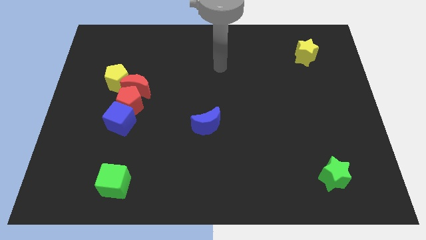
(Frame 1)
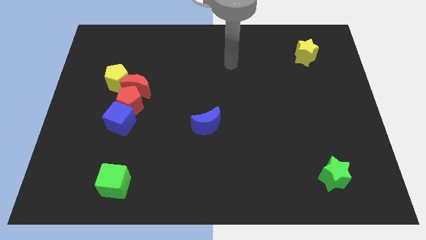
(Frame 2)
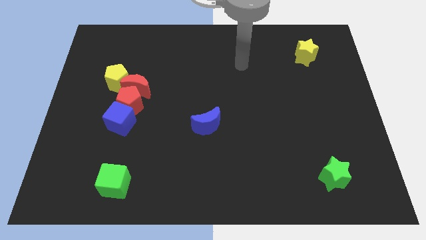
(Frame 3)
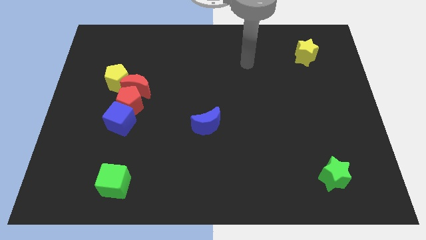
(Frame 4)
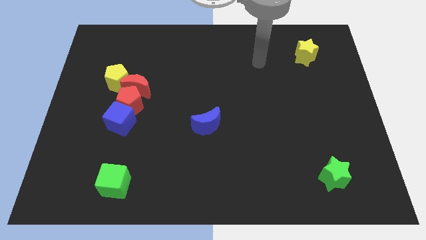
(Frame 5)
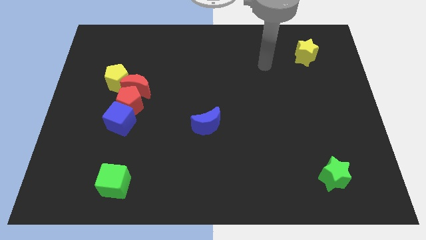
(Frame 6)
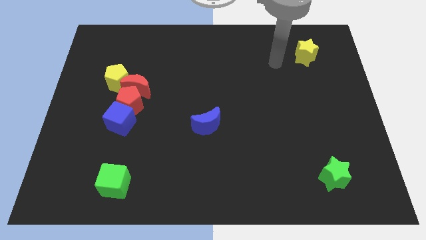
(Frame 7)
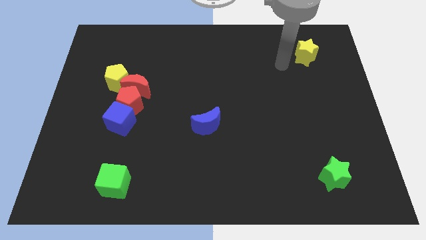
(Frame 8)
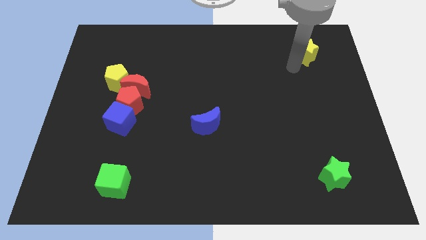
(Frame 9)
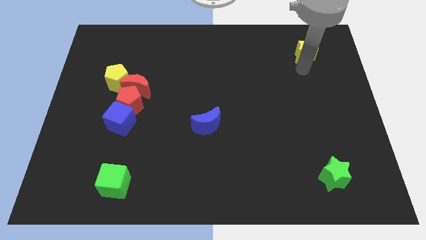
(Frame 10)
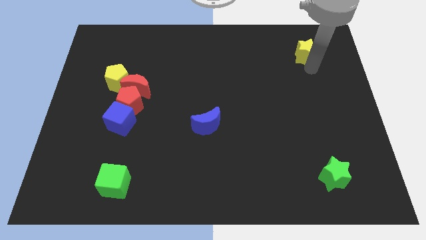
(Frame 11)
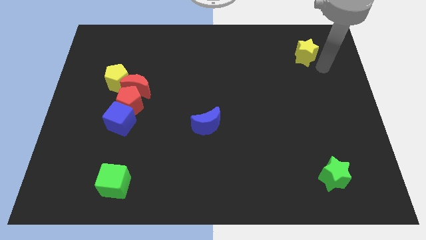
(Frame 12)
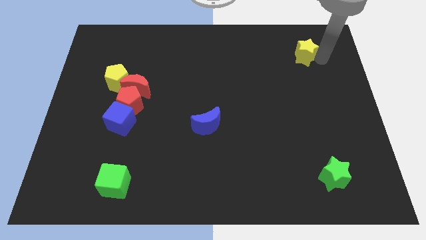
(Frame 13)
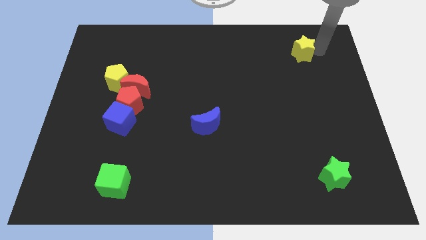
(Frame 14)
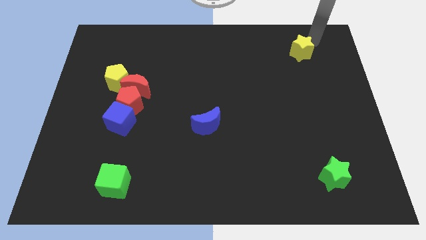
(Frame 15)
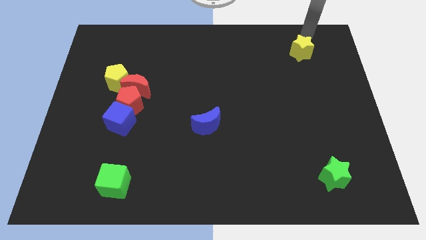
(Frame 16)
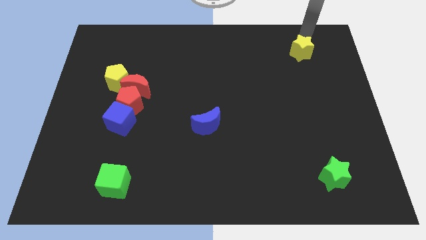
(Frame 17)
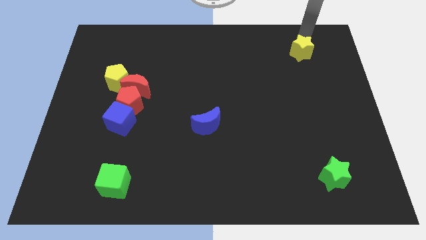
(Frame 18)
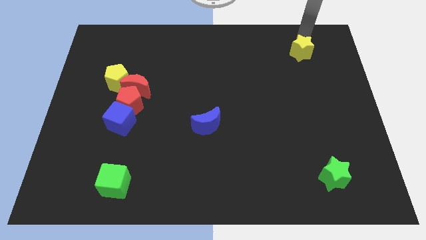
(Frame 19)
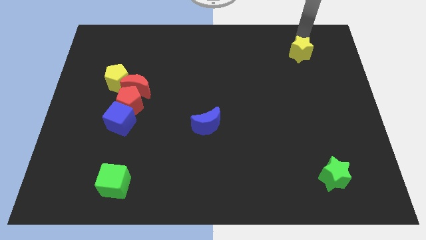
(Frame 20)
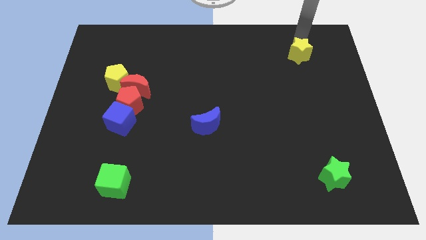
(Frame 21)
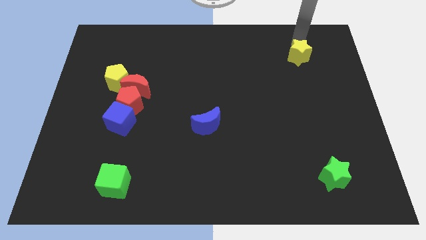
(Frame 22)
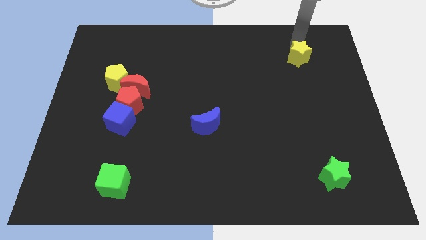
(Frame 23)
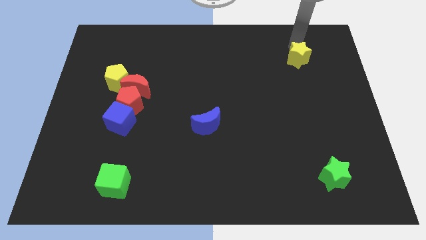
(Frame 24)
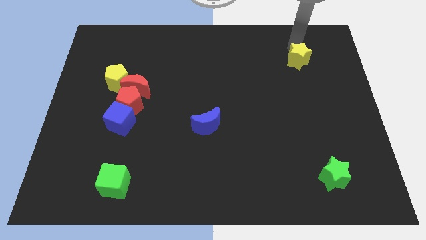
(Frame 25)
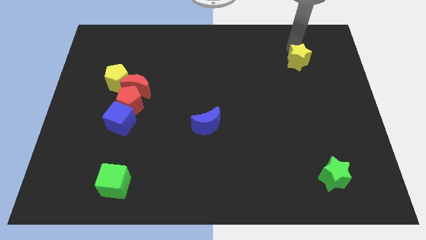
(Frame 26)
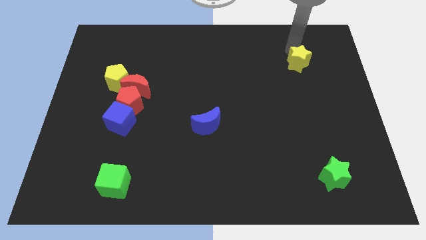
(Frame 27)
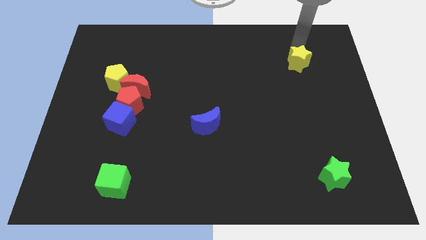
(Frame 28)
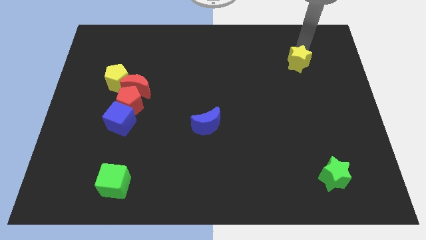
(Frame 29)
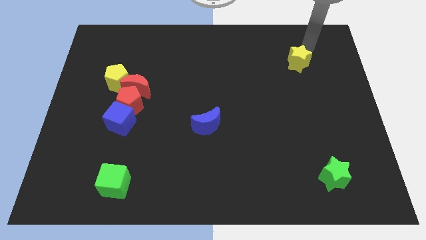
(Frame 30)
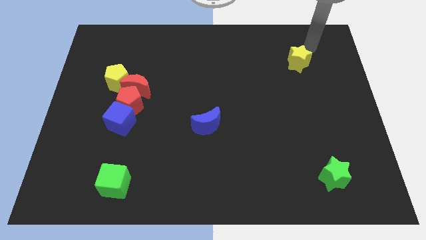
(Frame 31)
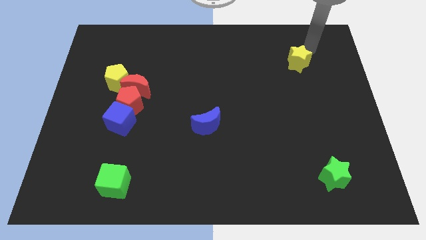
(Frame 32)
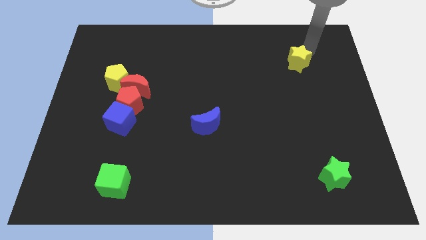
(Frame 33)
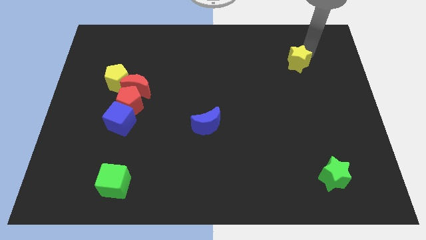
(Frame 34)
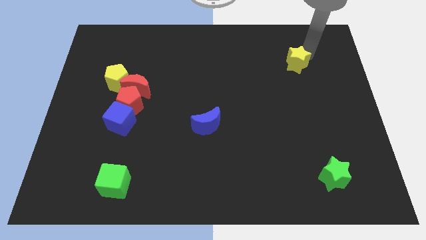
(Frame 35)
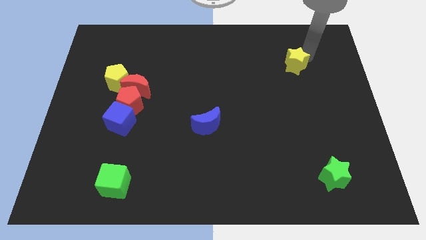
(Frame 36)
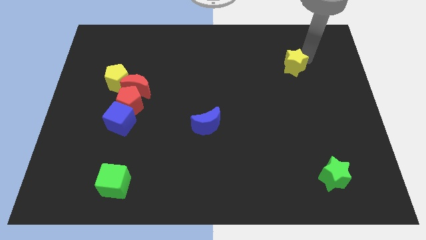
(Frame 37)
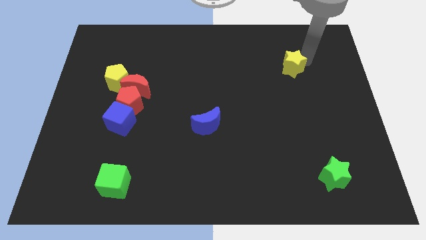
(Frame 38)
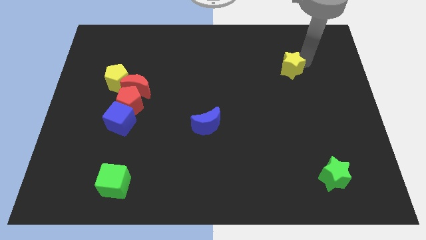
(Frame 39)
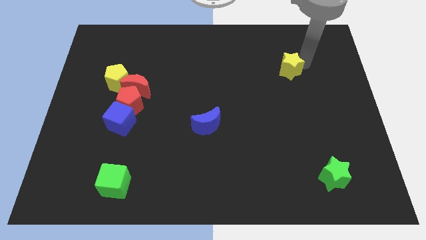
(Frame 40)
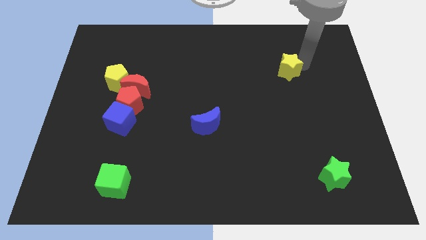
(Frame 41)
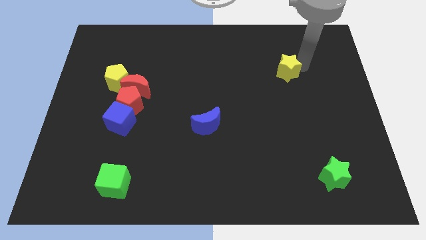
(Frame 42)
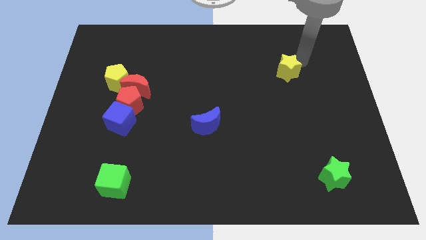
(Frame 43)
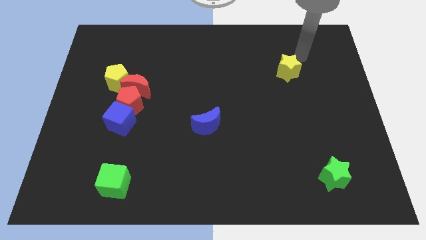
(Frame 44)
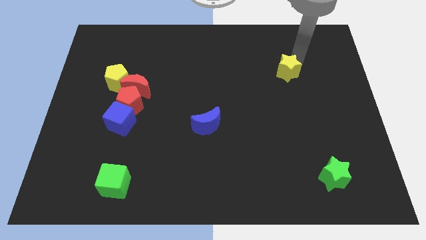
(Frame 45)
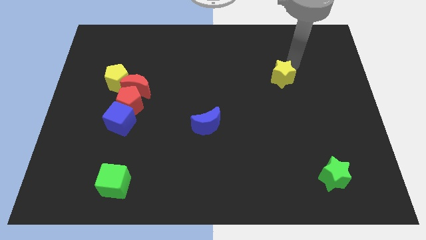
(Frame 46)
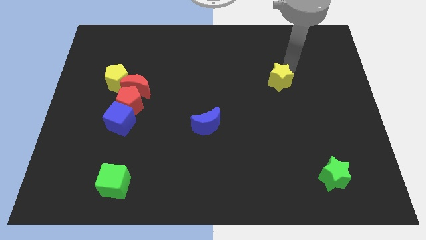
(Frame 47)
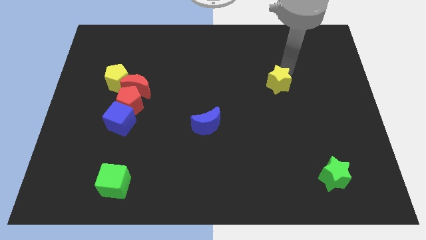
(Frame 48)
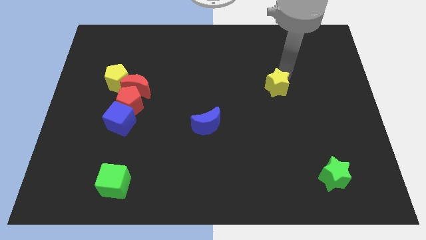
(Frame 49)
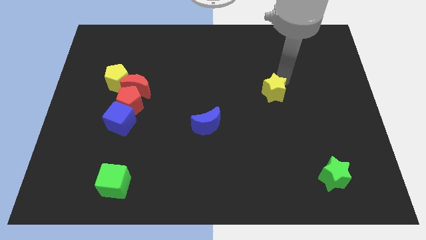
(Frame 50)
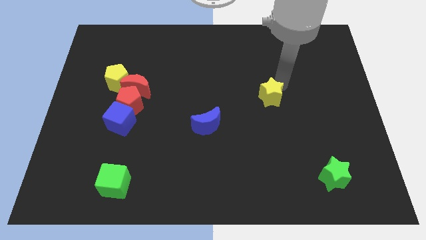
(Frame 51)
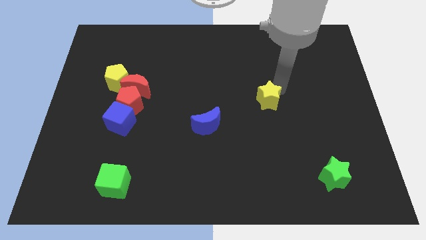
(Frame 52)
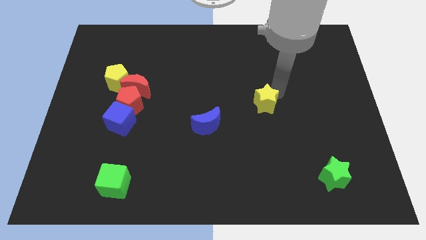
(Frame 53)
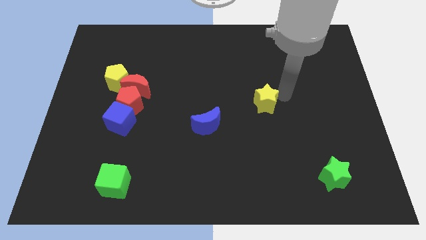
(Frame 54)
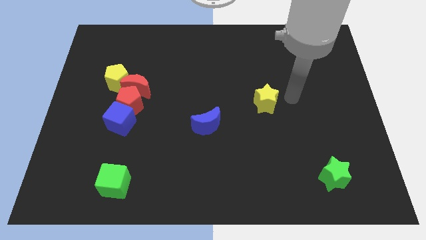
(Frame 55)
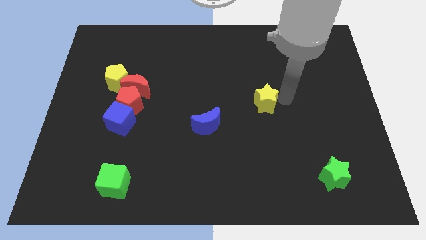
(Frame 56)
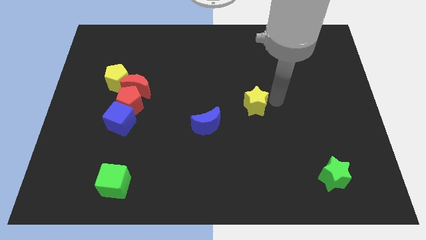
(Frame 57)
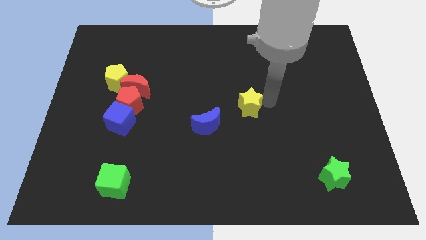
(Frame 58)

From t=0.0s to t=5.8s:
put the yellow star to the top right of the blue moon
